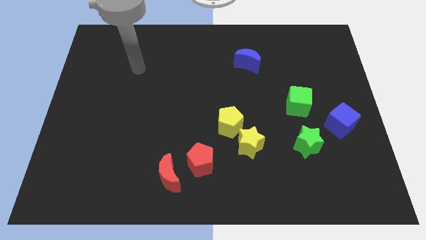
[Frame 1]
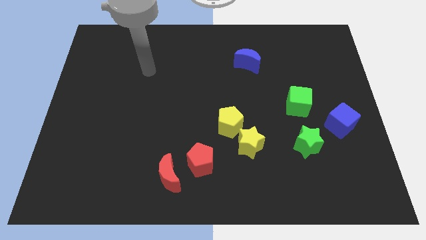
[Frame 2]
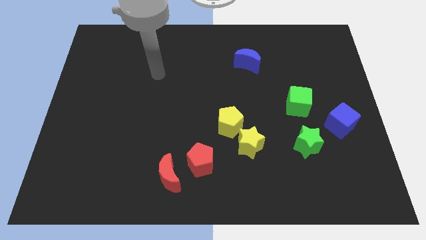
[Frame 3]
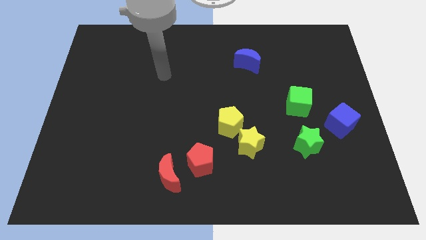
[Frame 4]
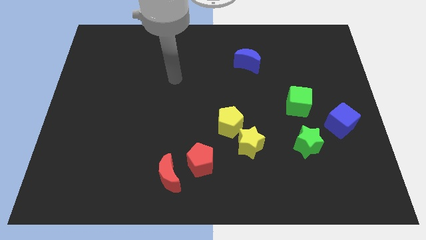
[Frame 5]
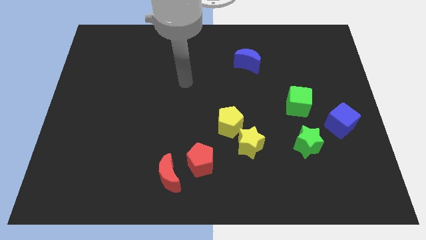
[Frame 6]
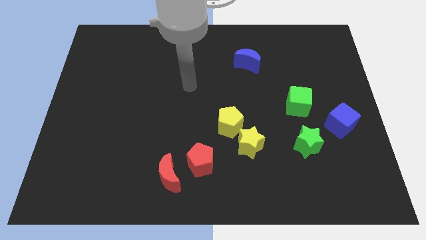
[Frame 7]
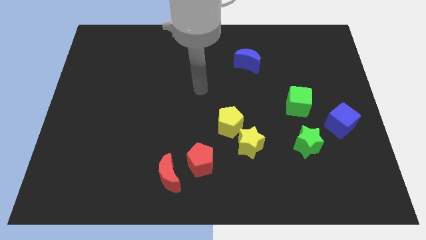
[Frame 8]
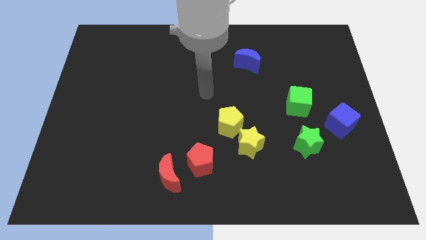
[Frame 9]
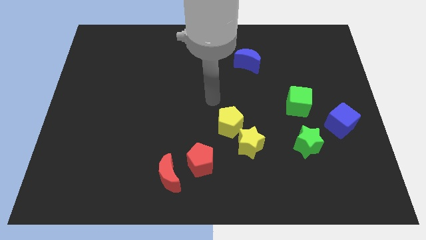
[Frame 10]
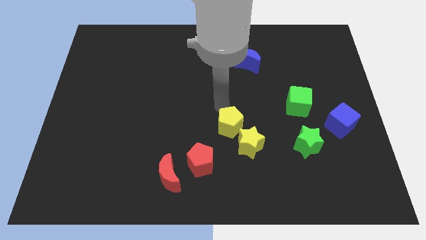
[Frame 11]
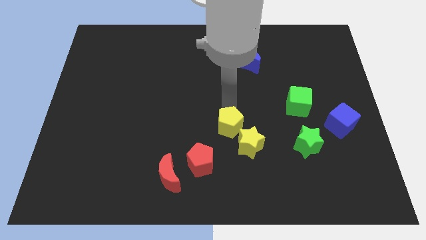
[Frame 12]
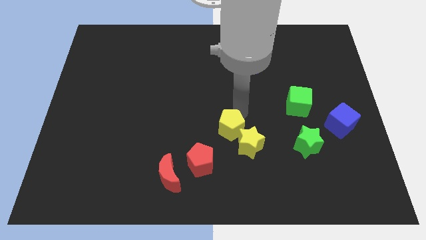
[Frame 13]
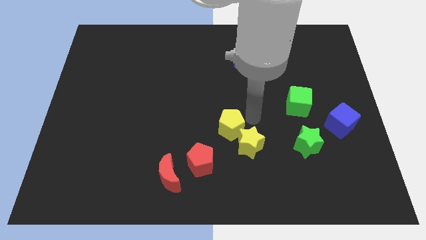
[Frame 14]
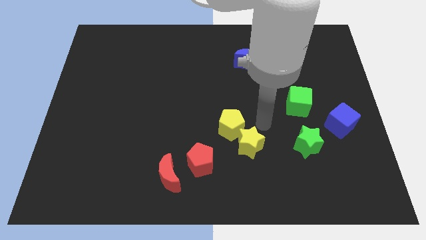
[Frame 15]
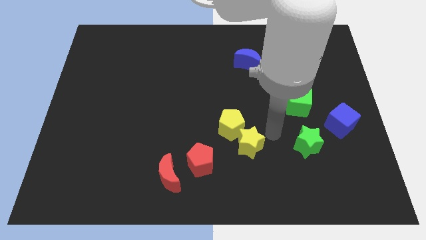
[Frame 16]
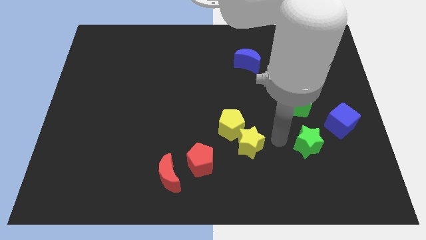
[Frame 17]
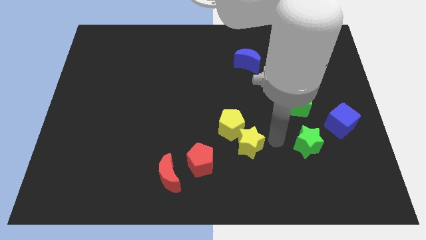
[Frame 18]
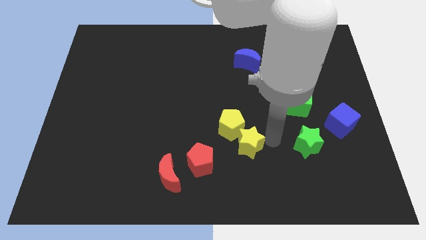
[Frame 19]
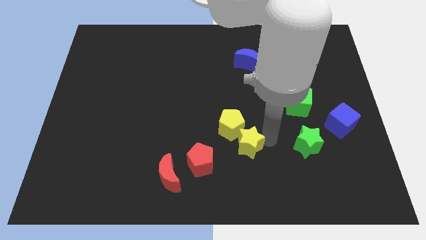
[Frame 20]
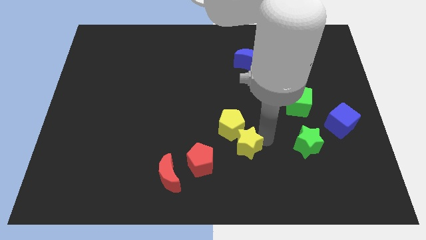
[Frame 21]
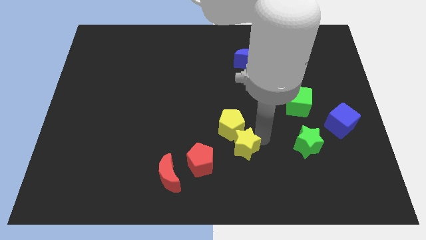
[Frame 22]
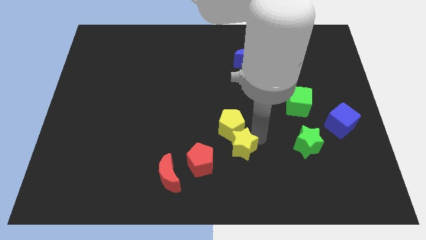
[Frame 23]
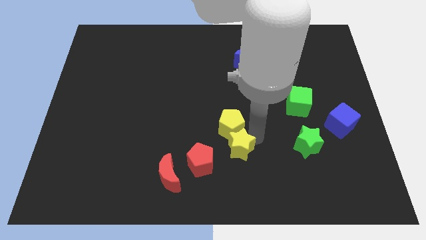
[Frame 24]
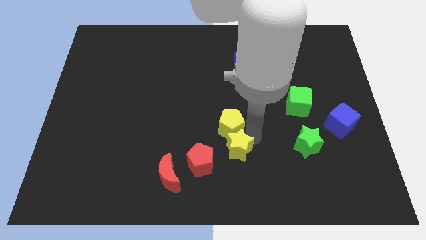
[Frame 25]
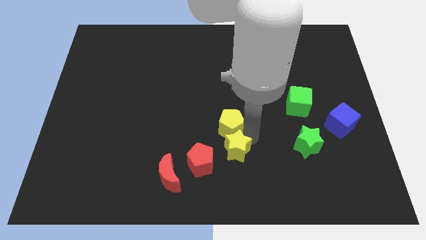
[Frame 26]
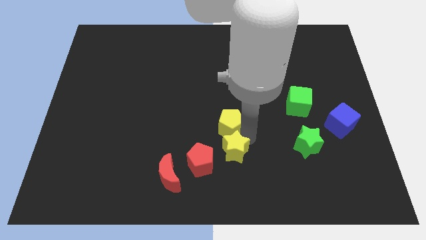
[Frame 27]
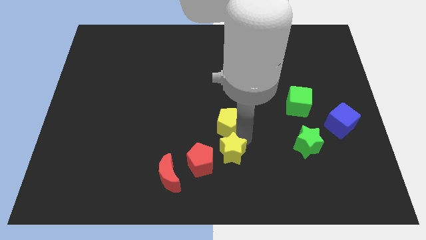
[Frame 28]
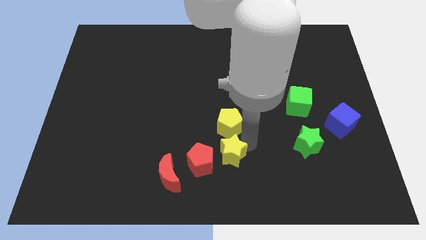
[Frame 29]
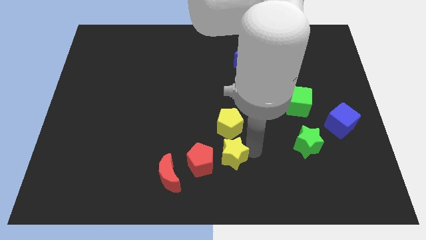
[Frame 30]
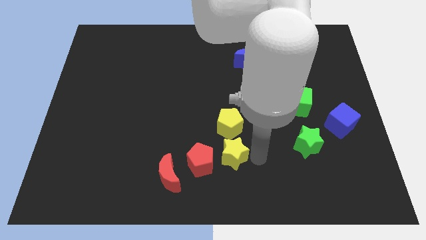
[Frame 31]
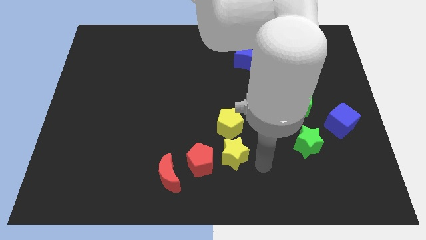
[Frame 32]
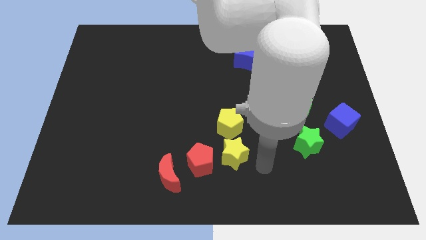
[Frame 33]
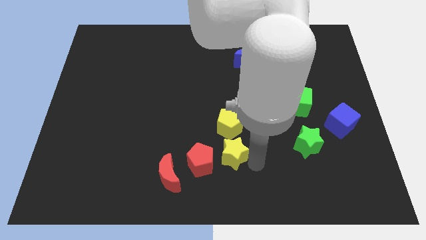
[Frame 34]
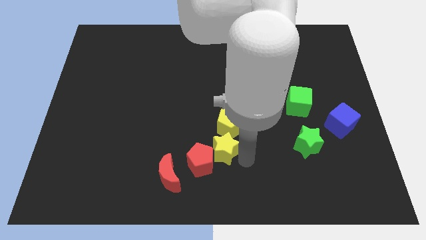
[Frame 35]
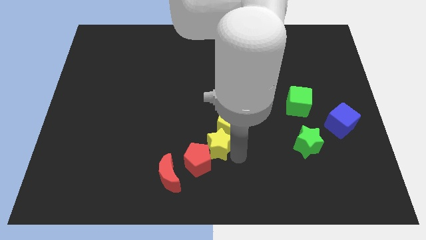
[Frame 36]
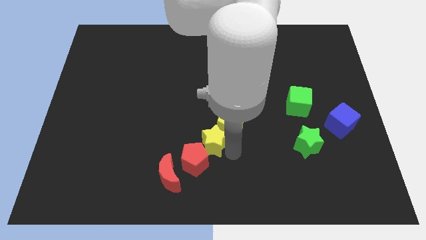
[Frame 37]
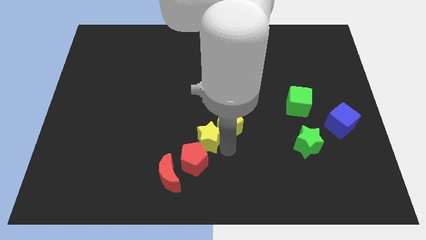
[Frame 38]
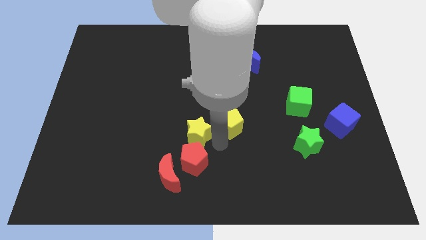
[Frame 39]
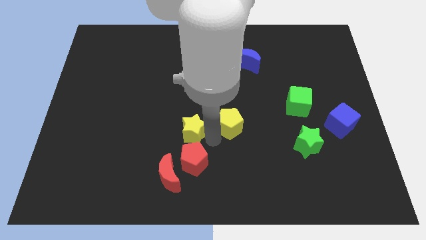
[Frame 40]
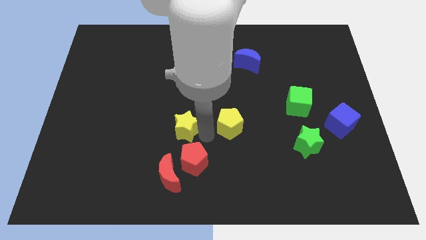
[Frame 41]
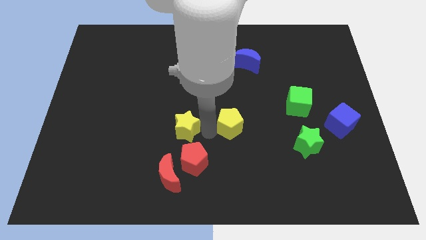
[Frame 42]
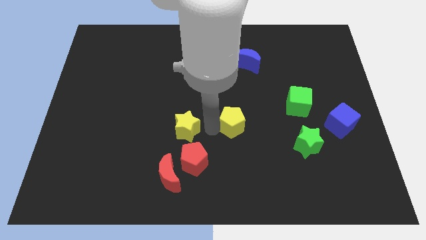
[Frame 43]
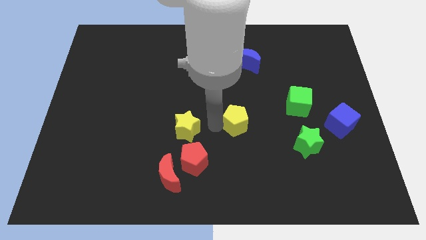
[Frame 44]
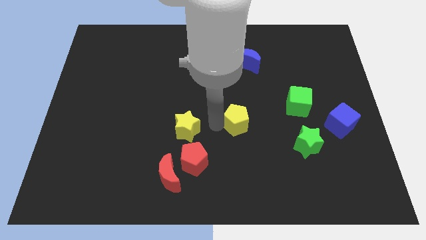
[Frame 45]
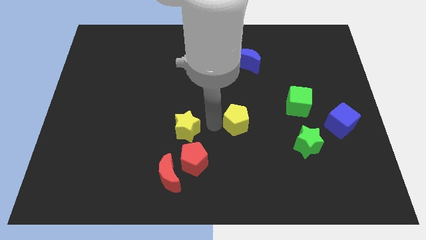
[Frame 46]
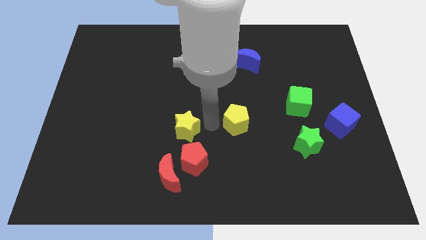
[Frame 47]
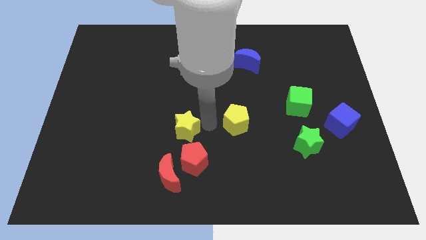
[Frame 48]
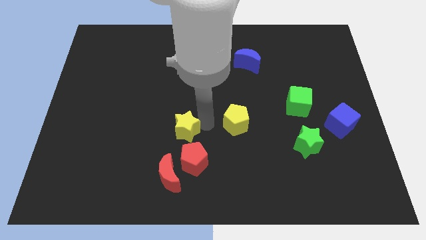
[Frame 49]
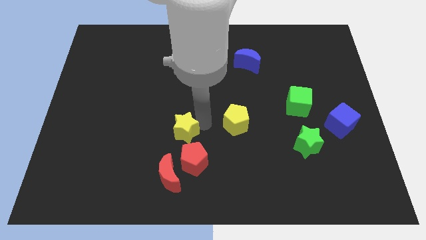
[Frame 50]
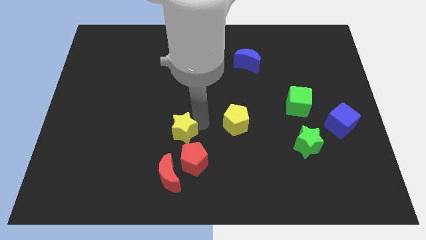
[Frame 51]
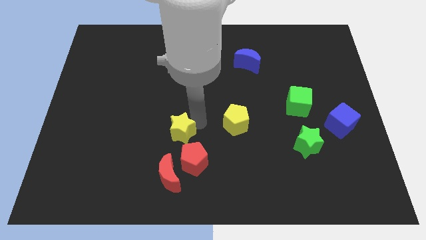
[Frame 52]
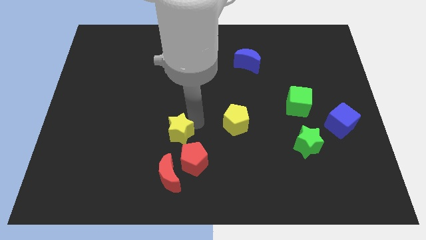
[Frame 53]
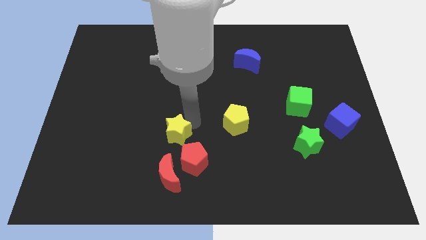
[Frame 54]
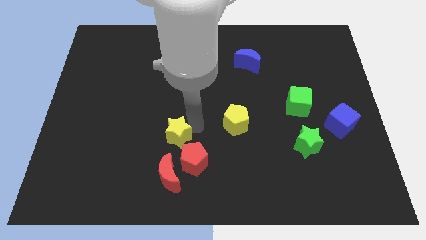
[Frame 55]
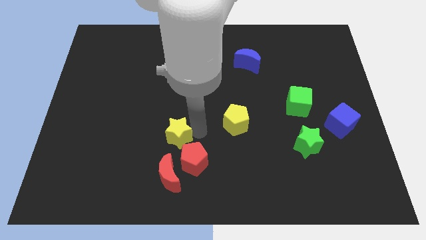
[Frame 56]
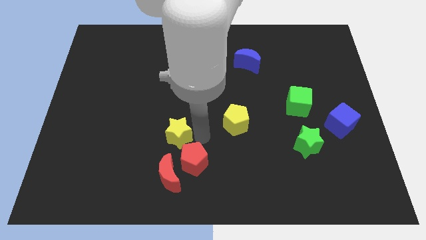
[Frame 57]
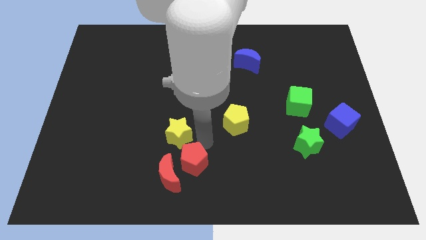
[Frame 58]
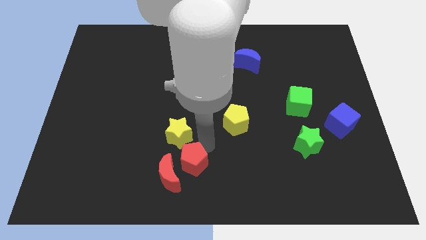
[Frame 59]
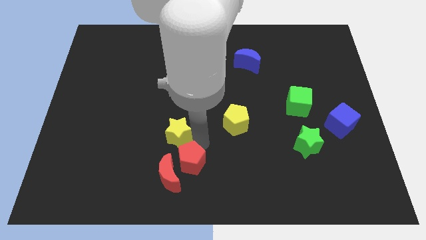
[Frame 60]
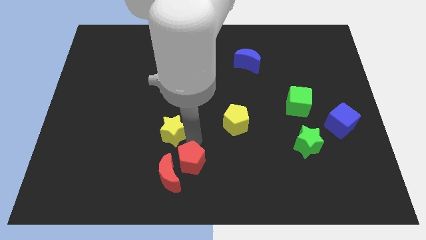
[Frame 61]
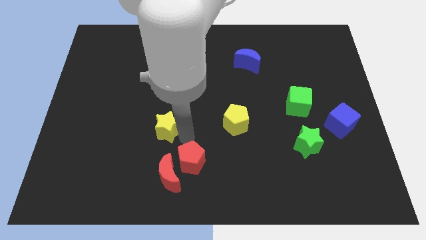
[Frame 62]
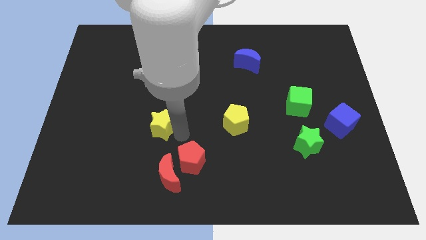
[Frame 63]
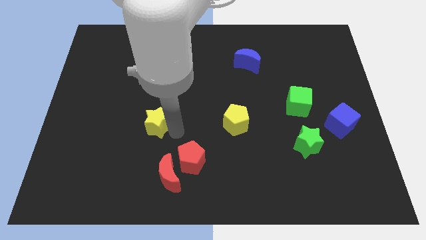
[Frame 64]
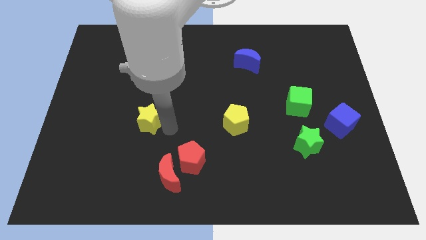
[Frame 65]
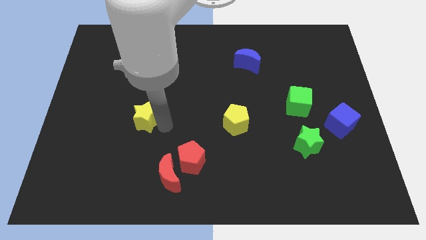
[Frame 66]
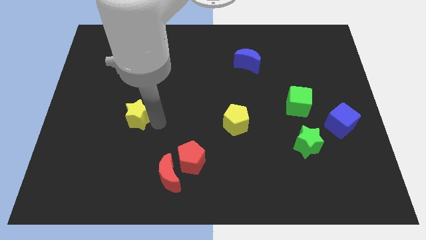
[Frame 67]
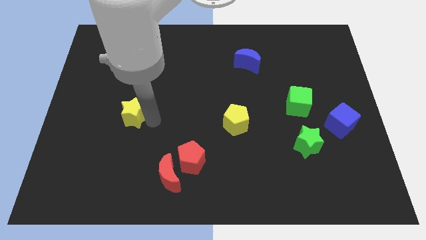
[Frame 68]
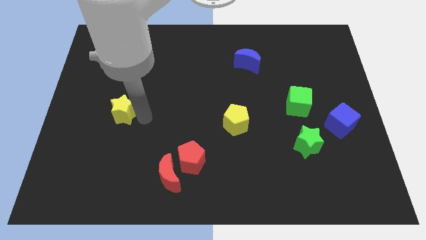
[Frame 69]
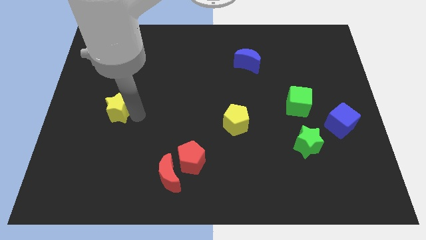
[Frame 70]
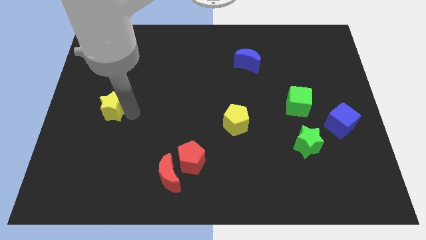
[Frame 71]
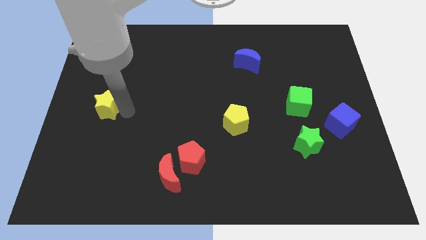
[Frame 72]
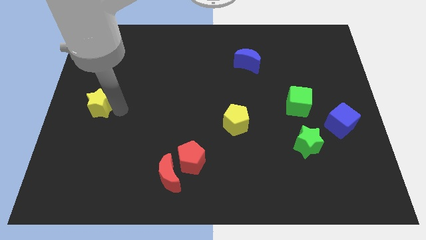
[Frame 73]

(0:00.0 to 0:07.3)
move the yellow star to the left side of the board
